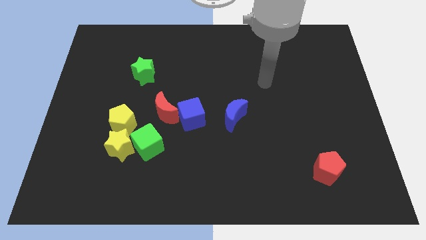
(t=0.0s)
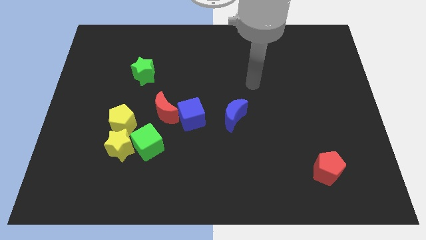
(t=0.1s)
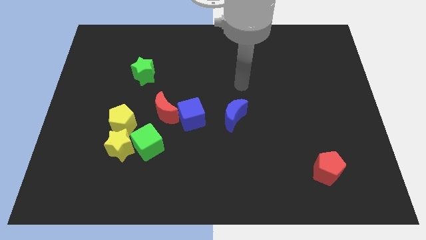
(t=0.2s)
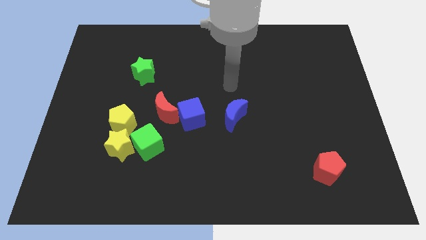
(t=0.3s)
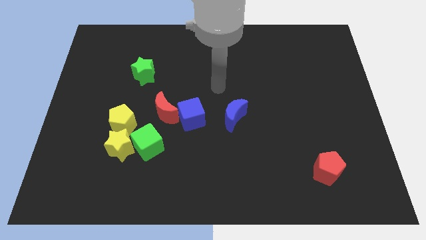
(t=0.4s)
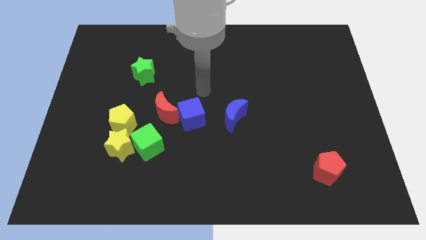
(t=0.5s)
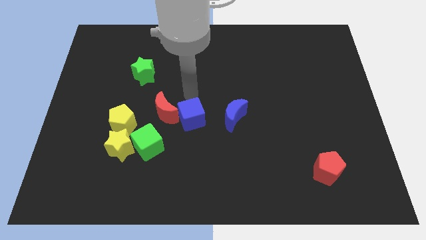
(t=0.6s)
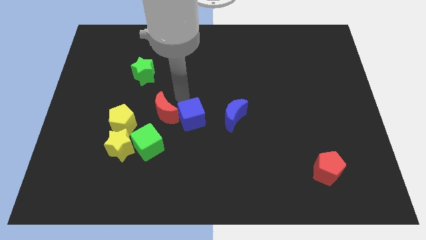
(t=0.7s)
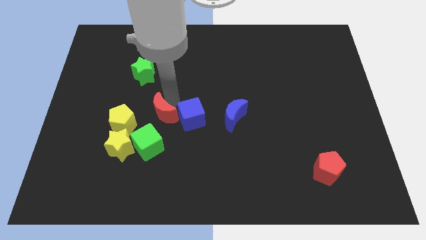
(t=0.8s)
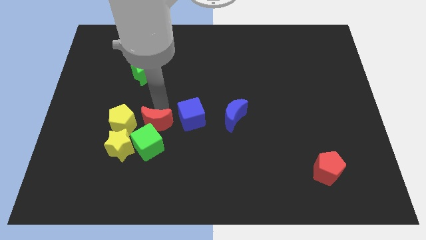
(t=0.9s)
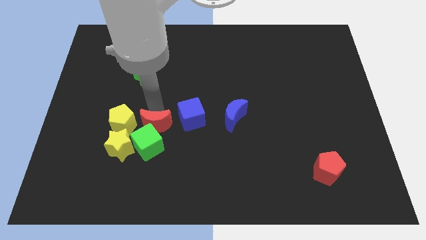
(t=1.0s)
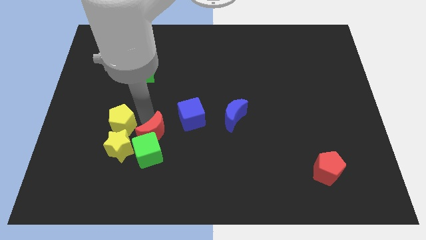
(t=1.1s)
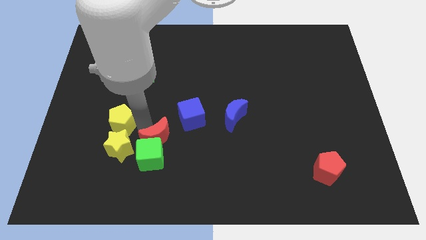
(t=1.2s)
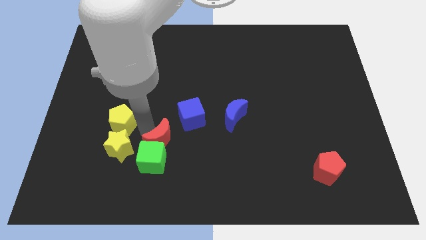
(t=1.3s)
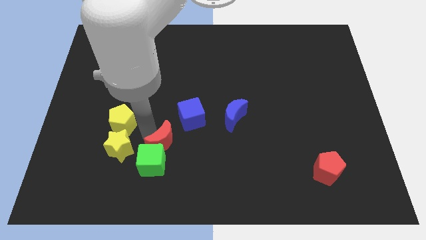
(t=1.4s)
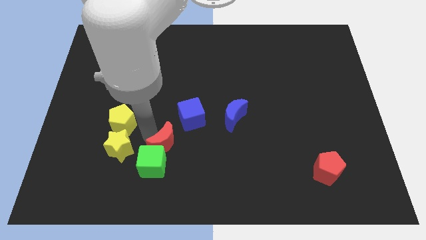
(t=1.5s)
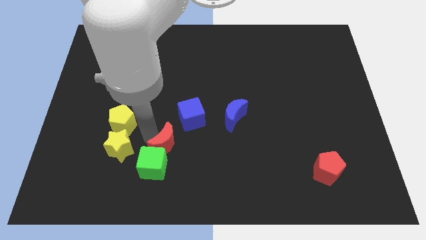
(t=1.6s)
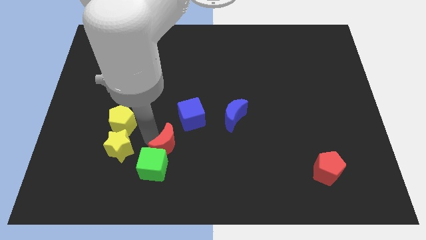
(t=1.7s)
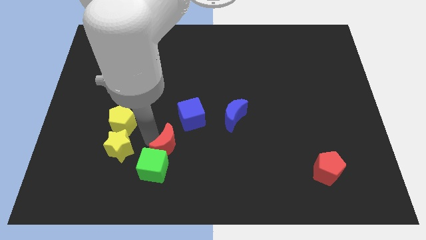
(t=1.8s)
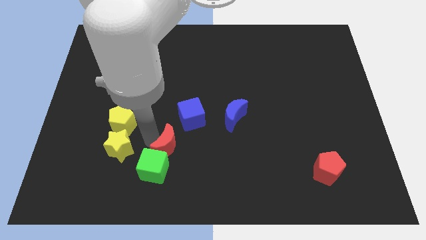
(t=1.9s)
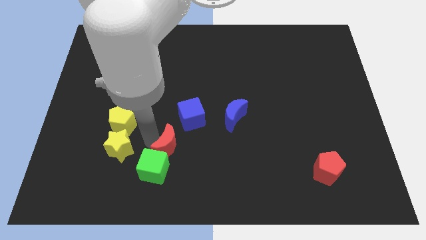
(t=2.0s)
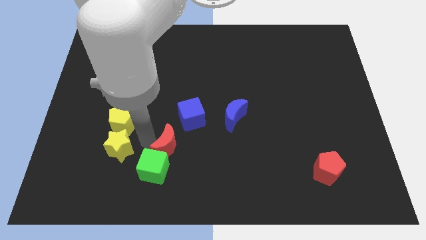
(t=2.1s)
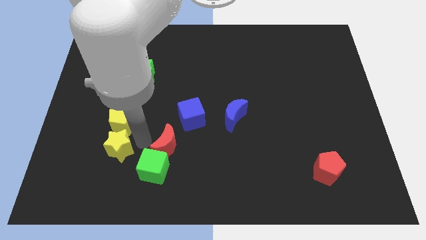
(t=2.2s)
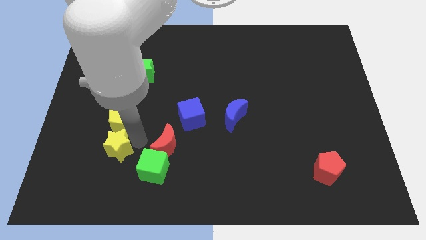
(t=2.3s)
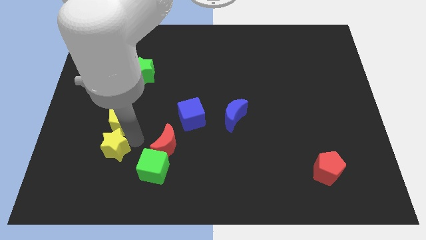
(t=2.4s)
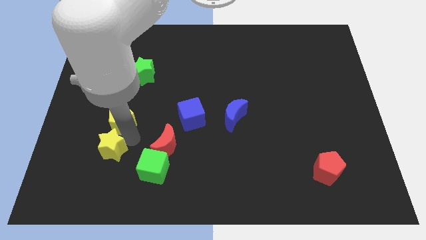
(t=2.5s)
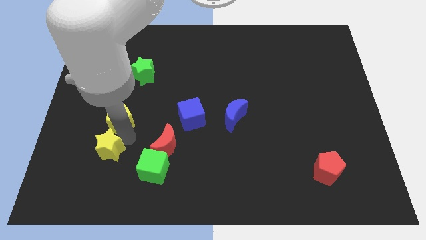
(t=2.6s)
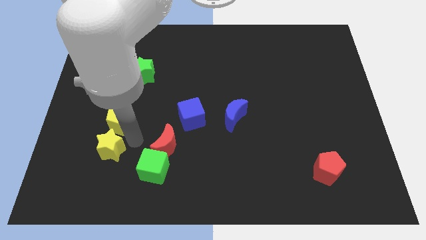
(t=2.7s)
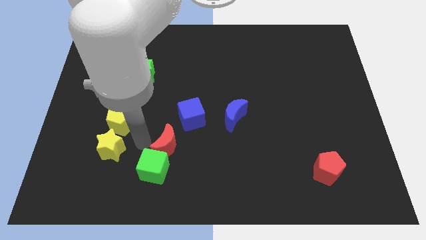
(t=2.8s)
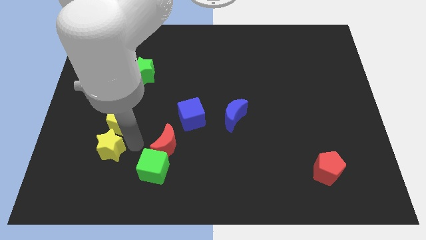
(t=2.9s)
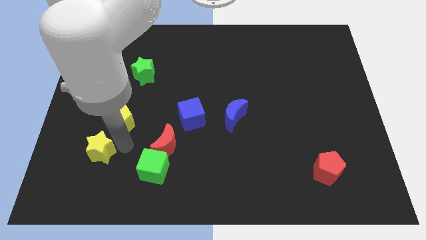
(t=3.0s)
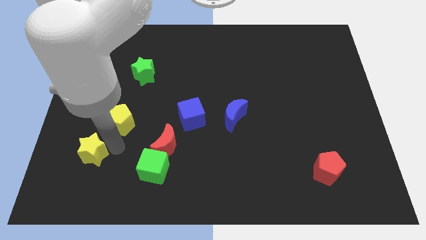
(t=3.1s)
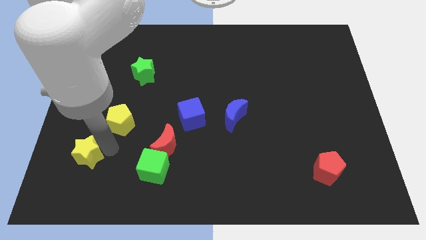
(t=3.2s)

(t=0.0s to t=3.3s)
pull the yellow star apart from the green cube and yellow pentagon

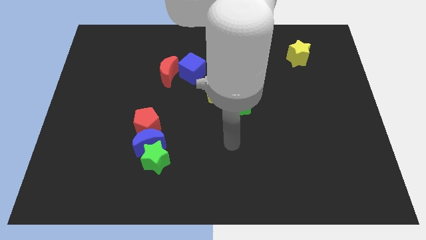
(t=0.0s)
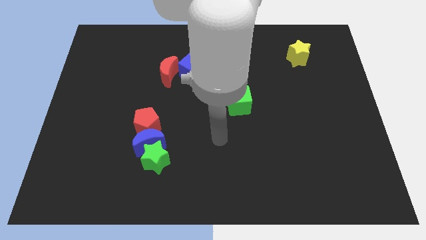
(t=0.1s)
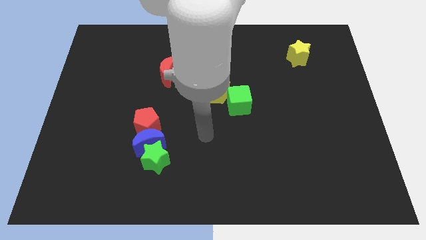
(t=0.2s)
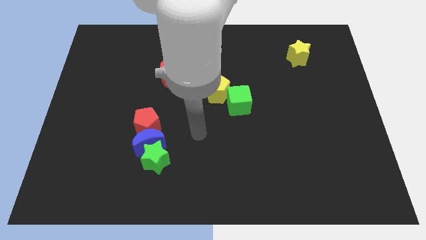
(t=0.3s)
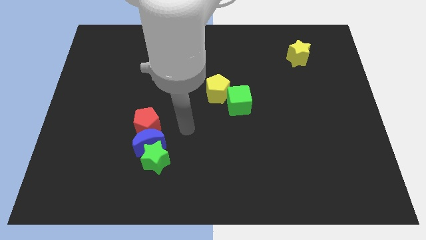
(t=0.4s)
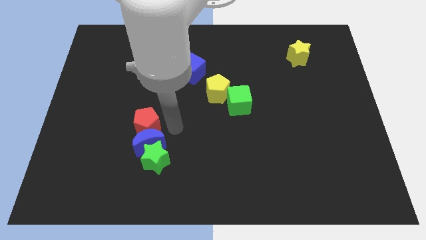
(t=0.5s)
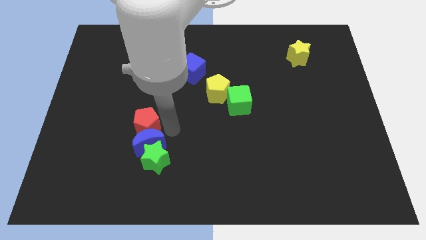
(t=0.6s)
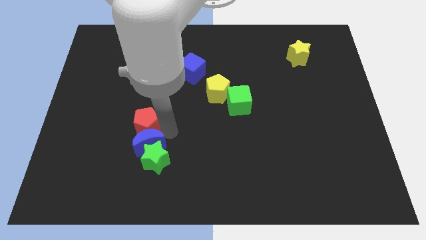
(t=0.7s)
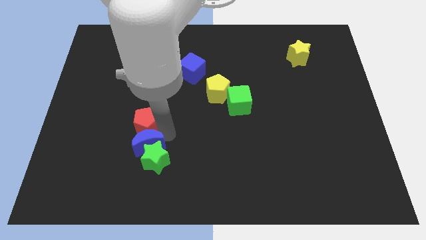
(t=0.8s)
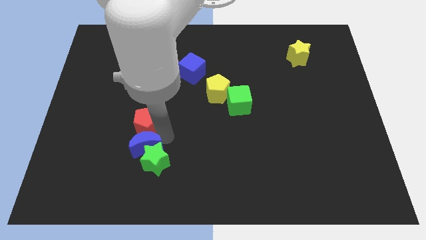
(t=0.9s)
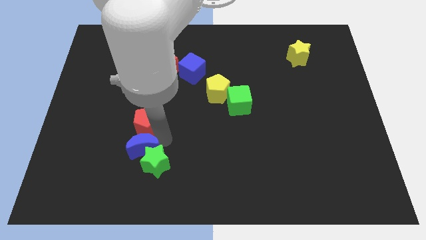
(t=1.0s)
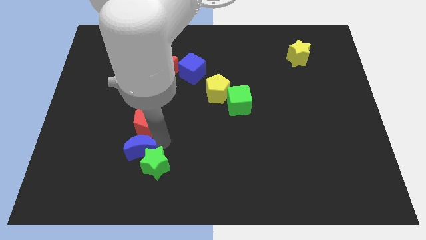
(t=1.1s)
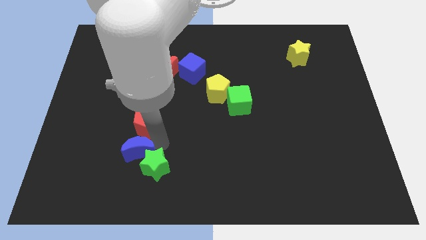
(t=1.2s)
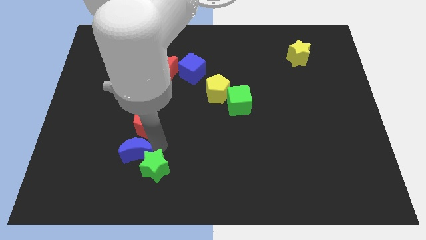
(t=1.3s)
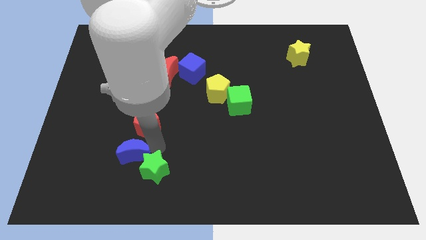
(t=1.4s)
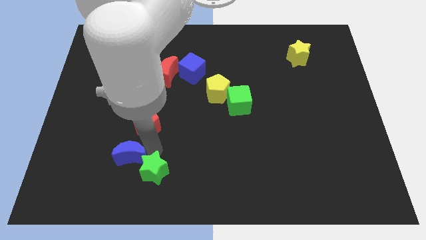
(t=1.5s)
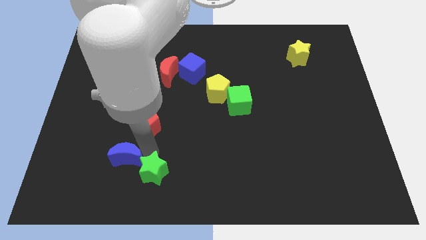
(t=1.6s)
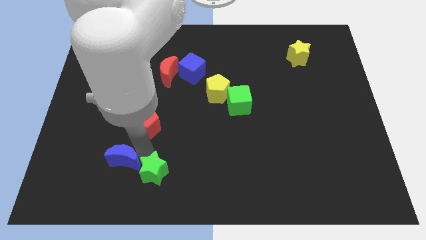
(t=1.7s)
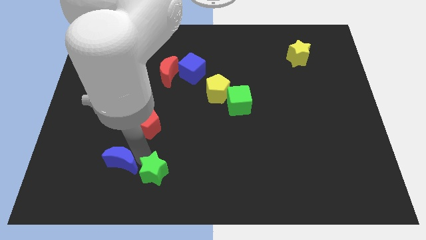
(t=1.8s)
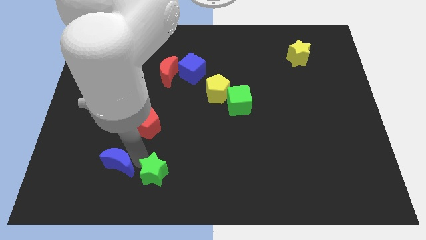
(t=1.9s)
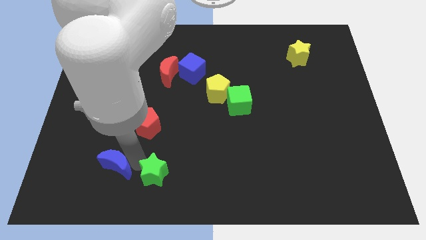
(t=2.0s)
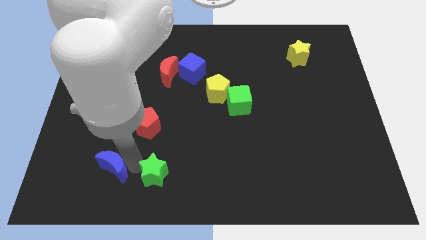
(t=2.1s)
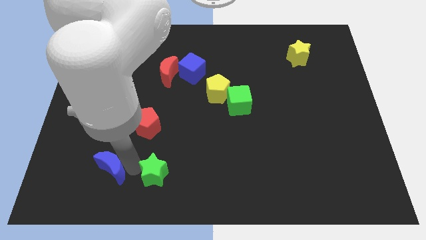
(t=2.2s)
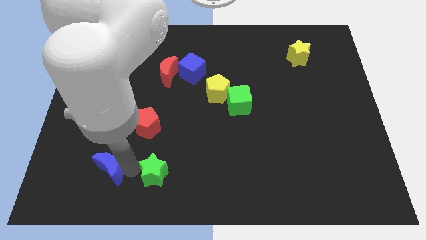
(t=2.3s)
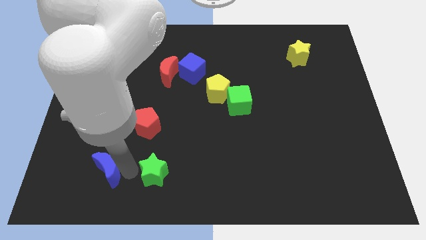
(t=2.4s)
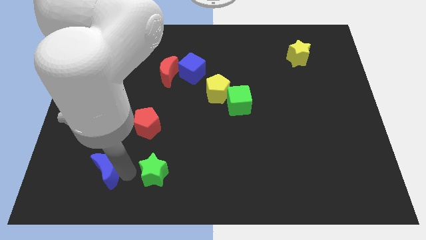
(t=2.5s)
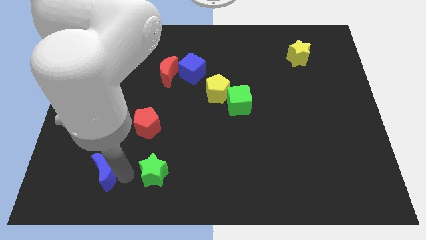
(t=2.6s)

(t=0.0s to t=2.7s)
pull the blue moon apart from the green star and red pentagon

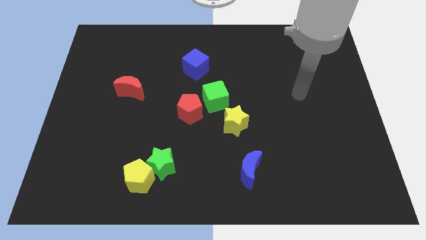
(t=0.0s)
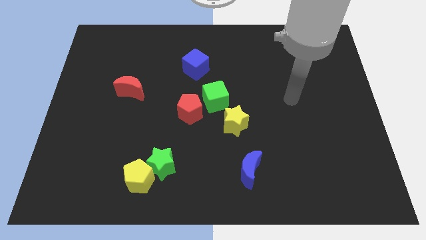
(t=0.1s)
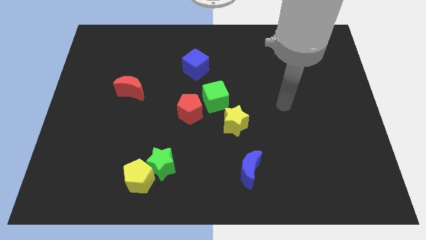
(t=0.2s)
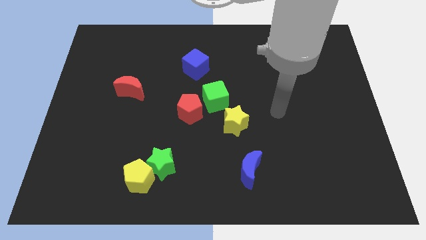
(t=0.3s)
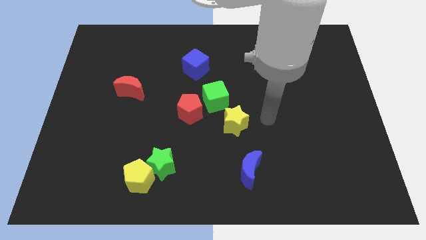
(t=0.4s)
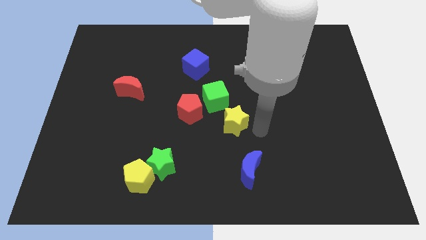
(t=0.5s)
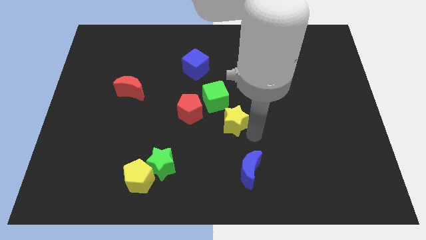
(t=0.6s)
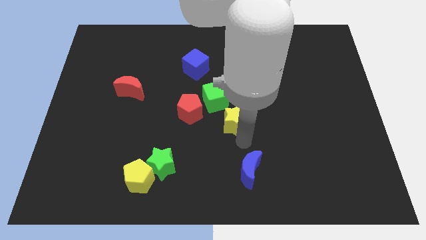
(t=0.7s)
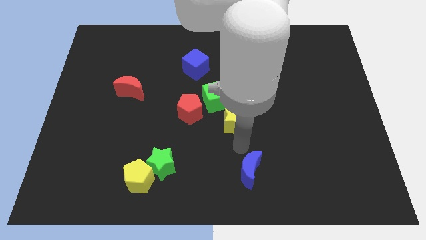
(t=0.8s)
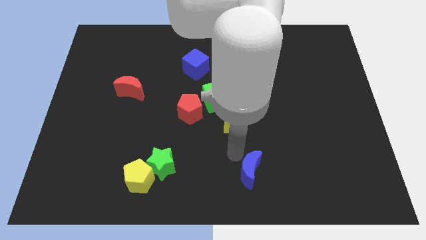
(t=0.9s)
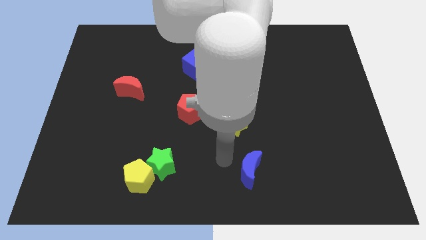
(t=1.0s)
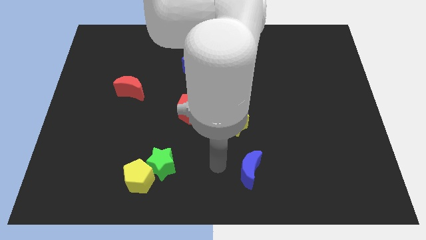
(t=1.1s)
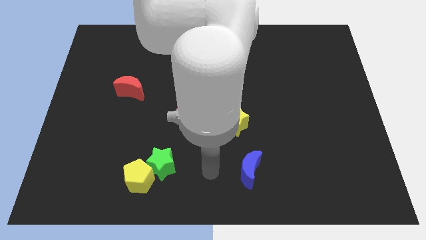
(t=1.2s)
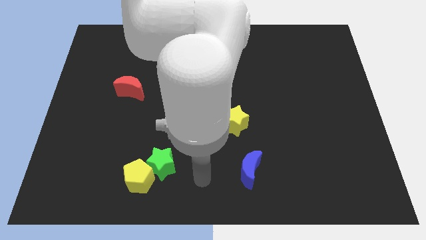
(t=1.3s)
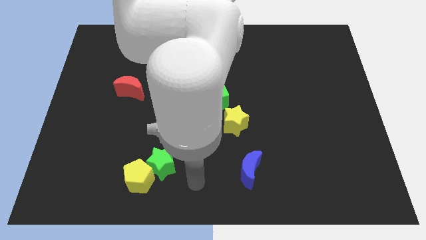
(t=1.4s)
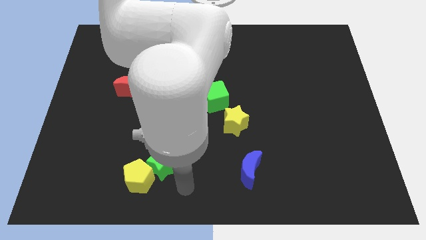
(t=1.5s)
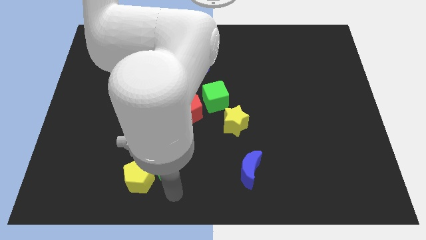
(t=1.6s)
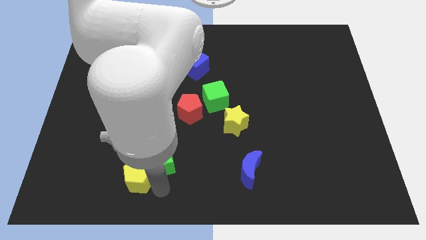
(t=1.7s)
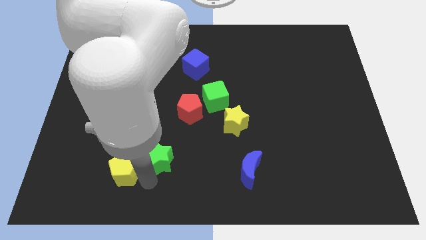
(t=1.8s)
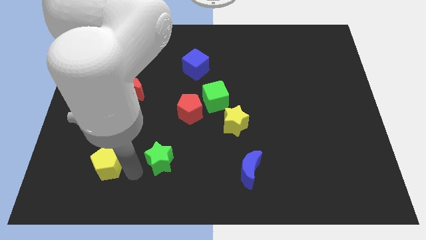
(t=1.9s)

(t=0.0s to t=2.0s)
separate the green star from the yellow pentagon

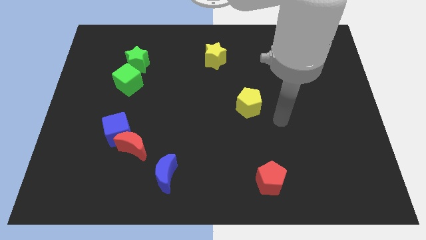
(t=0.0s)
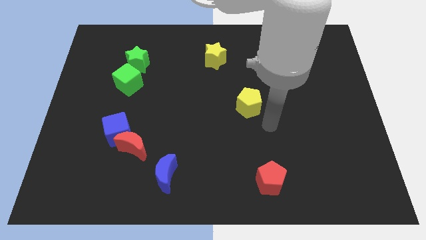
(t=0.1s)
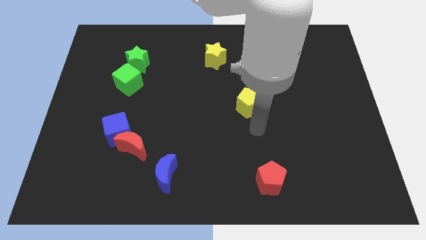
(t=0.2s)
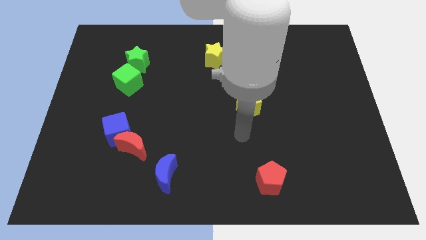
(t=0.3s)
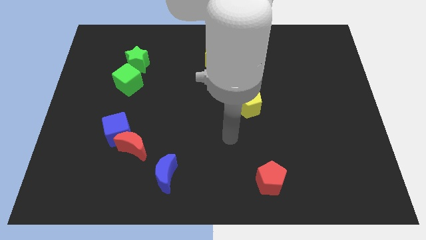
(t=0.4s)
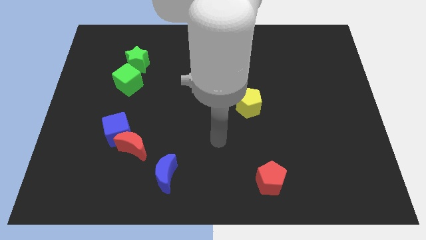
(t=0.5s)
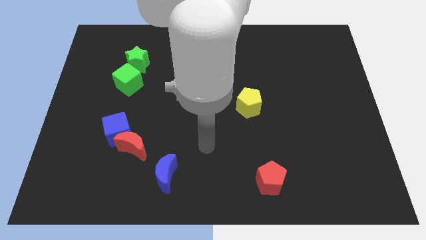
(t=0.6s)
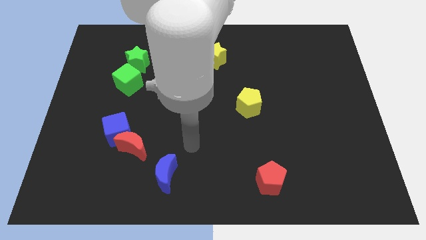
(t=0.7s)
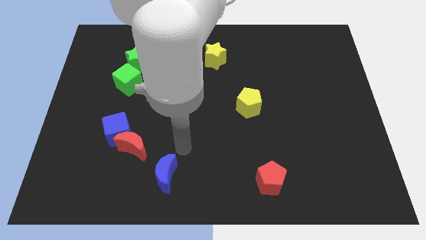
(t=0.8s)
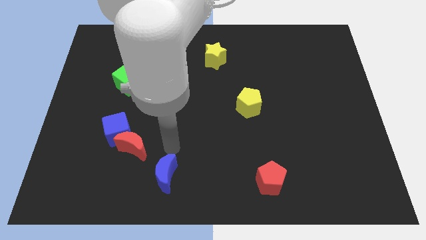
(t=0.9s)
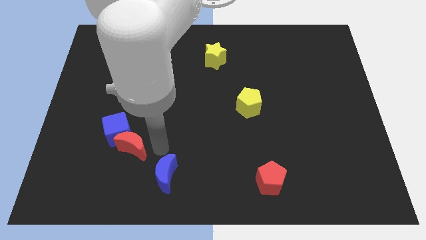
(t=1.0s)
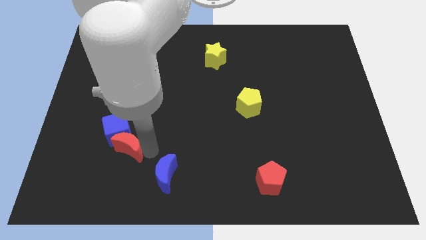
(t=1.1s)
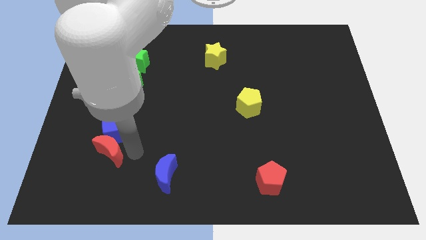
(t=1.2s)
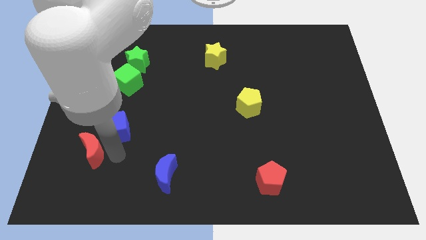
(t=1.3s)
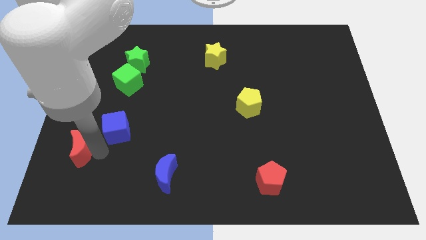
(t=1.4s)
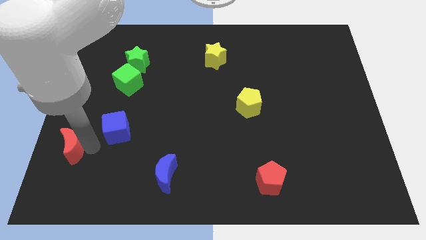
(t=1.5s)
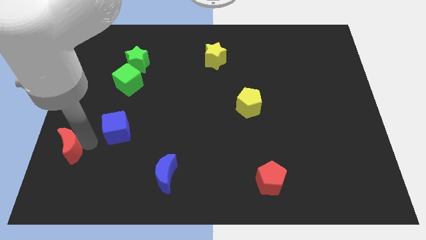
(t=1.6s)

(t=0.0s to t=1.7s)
separate the blue cube from the red moon
